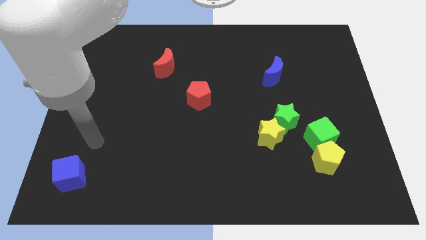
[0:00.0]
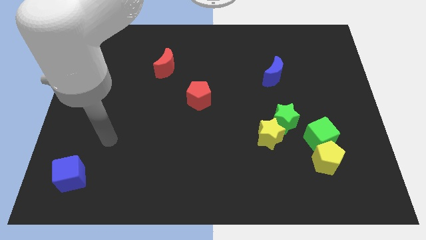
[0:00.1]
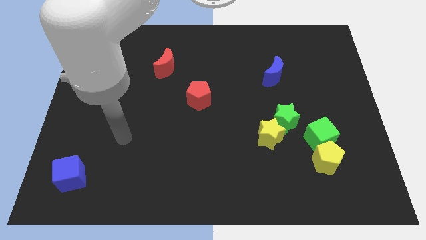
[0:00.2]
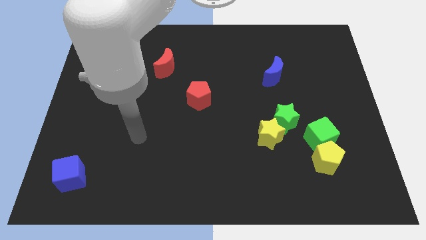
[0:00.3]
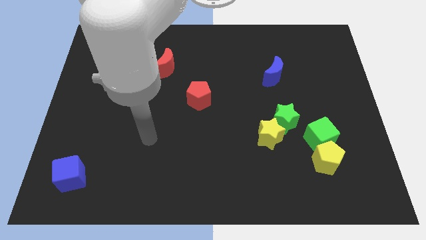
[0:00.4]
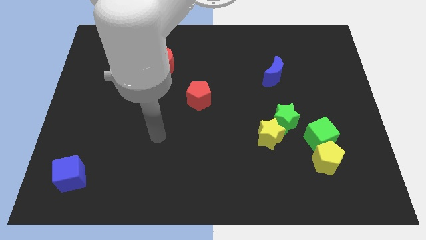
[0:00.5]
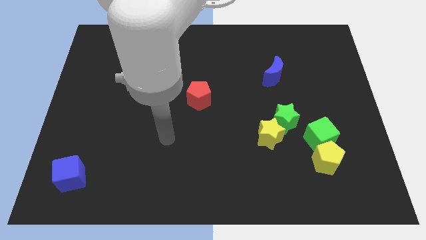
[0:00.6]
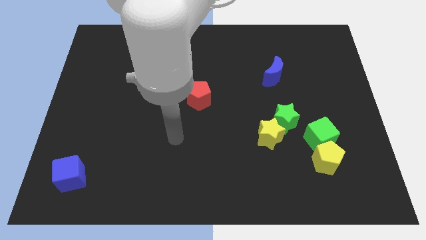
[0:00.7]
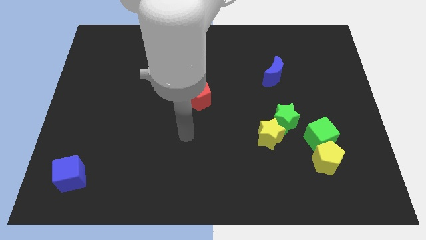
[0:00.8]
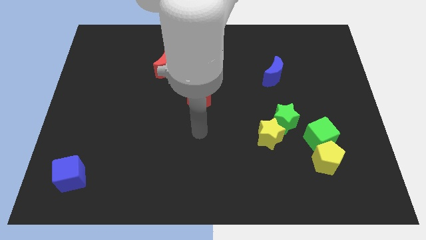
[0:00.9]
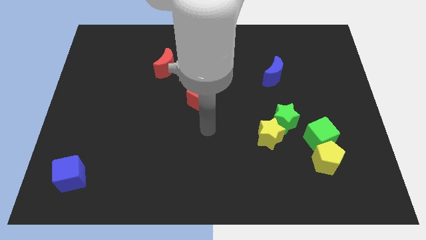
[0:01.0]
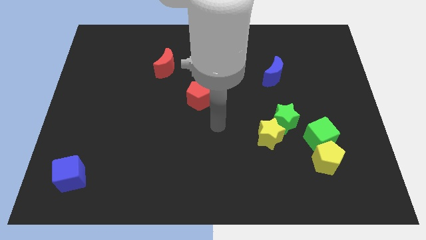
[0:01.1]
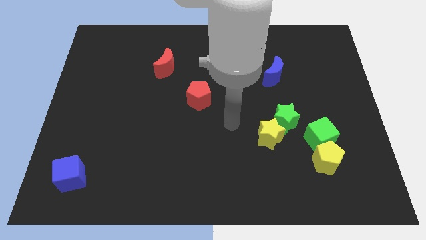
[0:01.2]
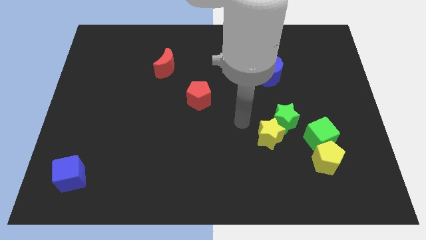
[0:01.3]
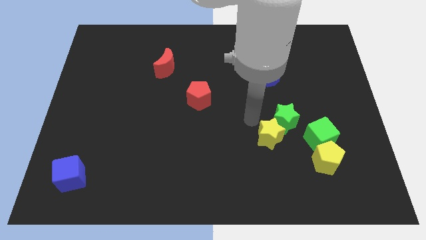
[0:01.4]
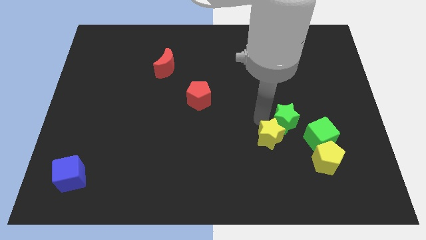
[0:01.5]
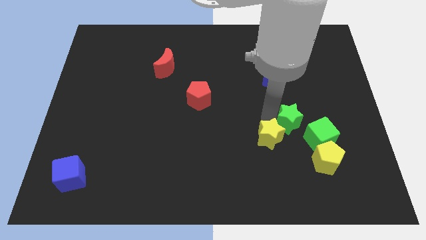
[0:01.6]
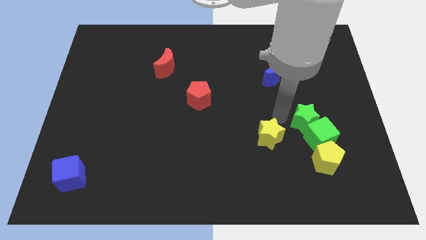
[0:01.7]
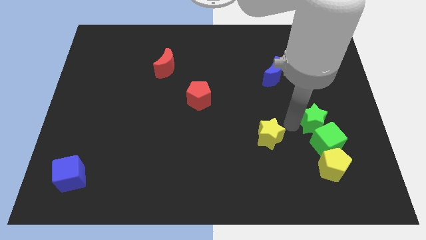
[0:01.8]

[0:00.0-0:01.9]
move the yellow star away from the green star

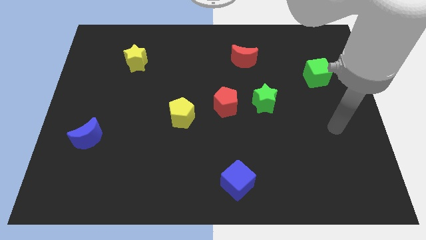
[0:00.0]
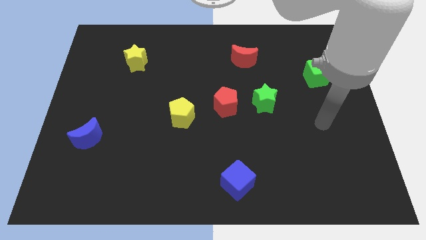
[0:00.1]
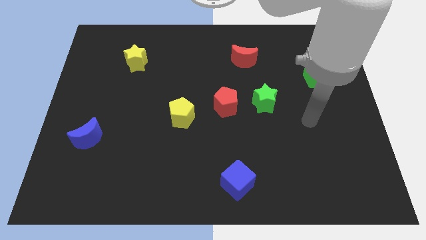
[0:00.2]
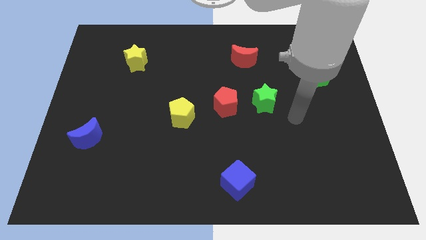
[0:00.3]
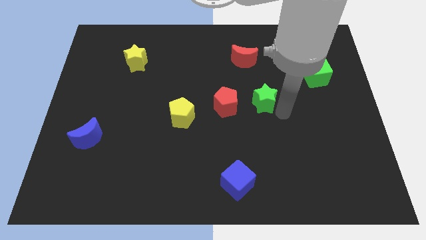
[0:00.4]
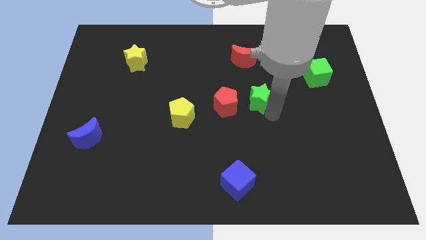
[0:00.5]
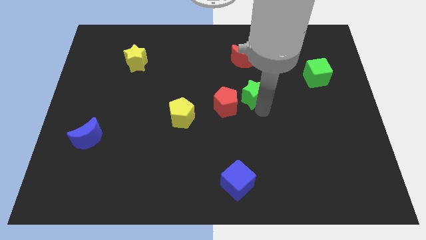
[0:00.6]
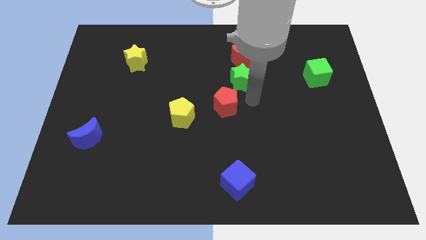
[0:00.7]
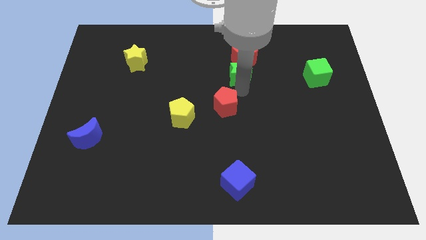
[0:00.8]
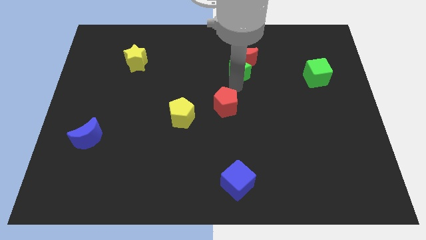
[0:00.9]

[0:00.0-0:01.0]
separate the red pentagon from the green star

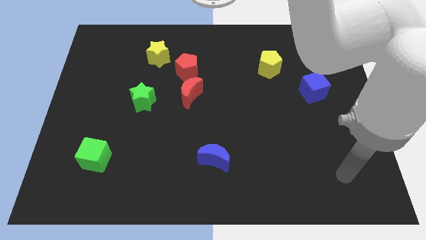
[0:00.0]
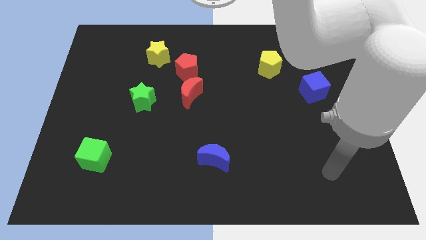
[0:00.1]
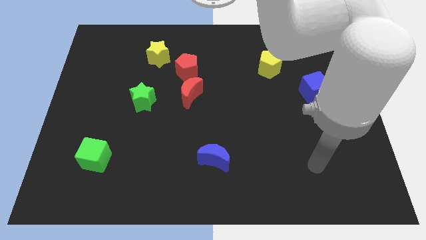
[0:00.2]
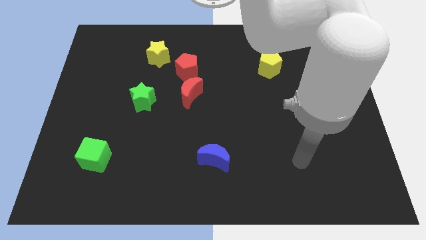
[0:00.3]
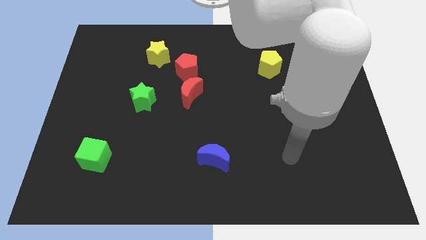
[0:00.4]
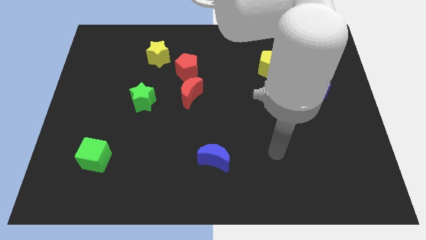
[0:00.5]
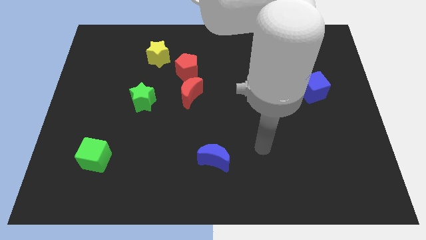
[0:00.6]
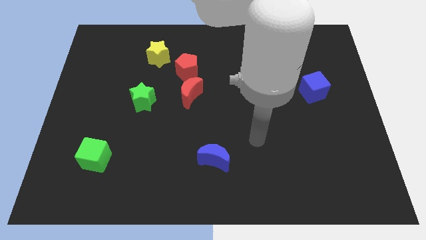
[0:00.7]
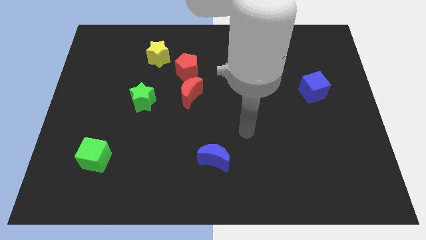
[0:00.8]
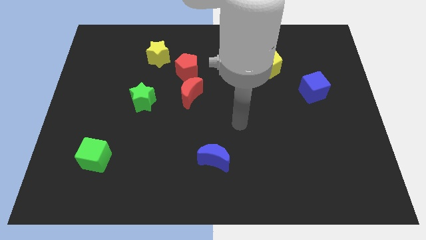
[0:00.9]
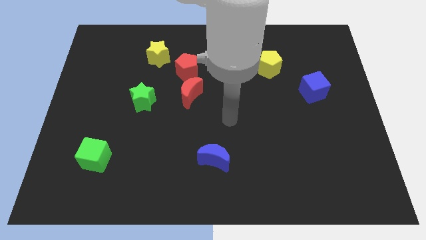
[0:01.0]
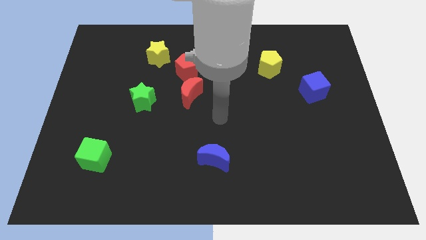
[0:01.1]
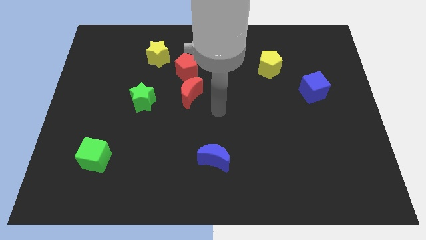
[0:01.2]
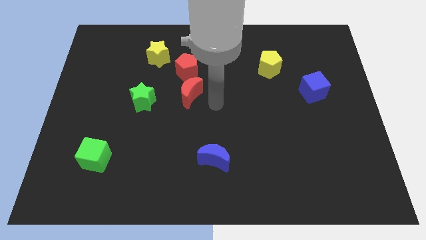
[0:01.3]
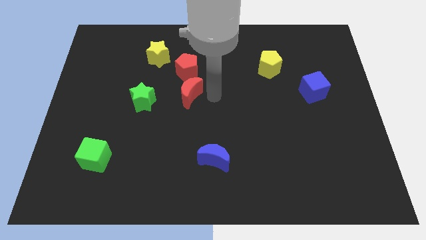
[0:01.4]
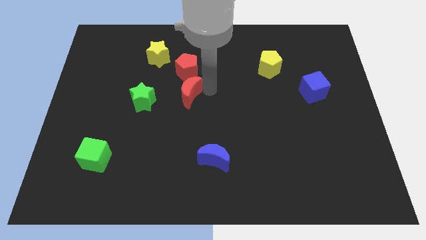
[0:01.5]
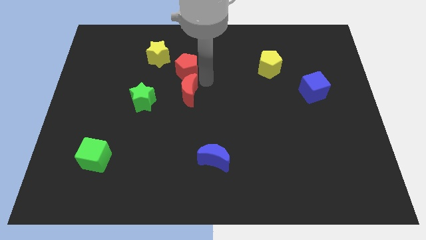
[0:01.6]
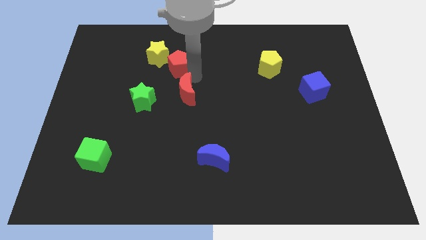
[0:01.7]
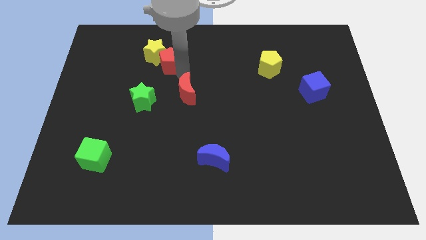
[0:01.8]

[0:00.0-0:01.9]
pull the red moon apart from the red pentagon

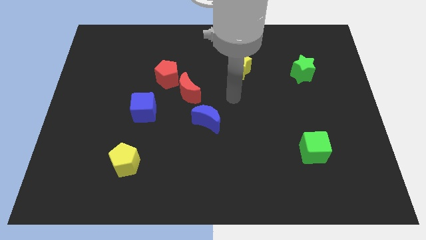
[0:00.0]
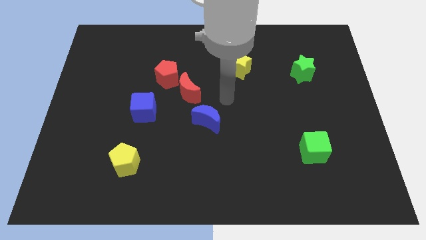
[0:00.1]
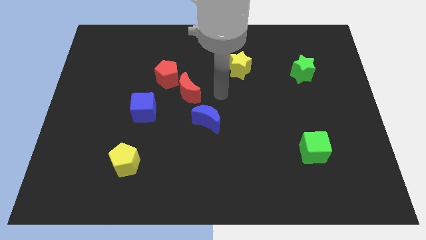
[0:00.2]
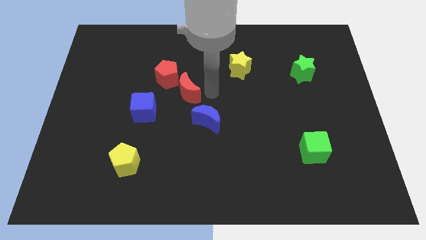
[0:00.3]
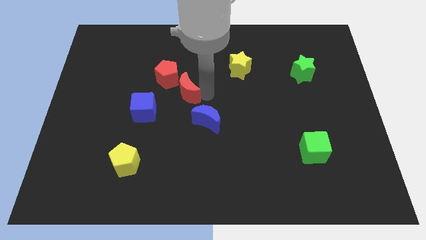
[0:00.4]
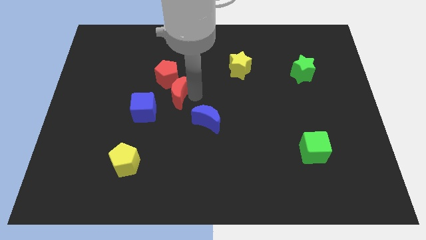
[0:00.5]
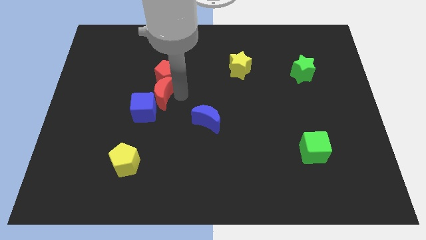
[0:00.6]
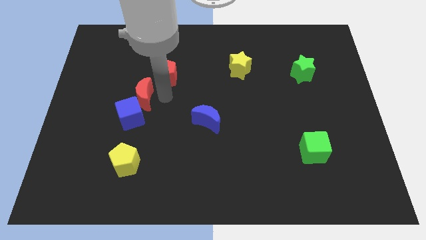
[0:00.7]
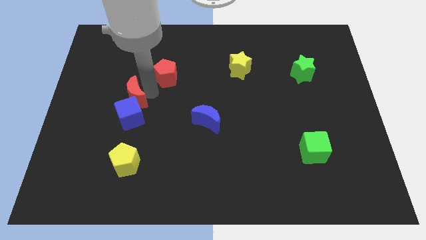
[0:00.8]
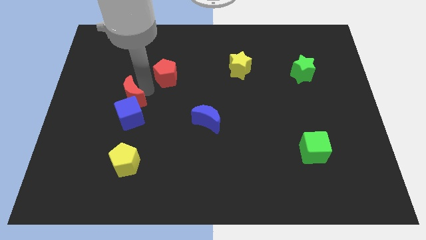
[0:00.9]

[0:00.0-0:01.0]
pull the red pentagon apart from the red moon

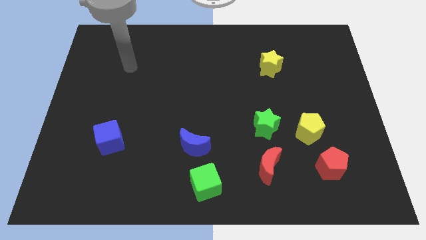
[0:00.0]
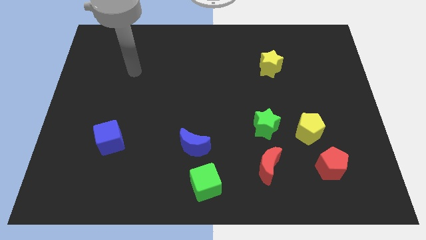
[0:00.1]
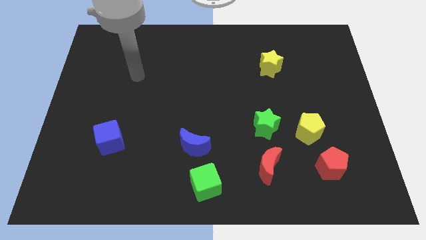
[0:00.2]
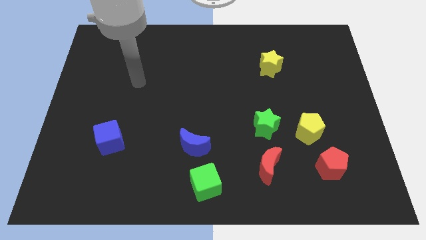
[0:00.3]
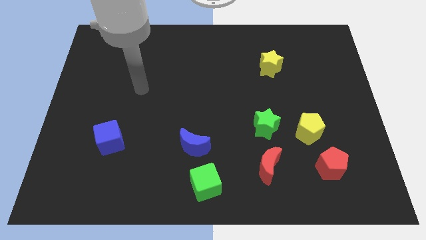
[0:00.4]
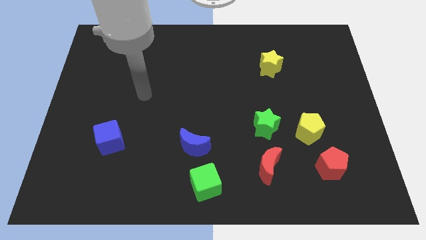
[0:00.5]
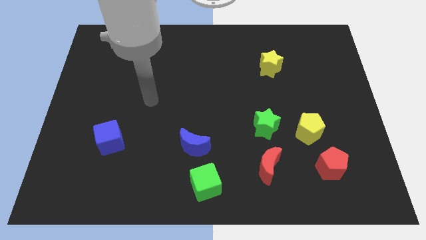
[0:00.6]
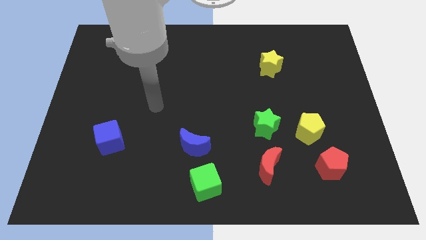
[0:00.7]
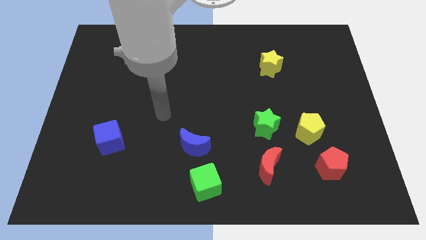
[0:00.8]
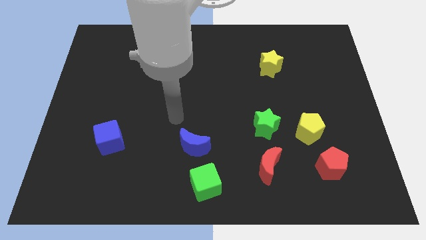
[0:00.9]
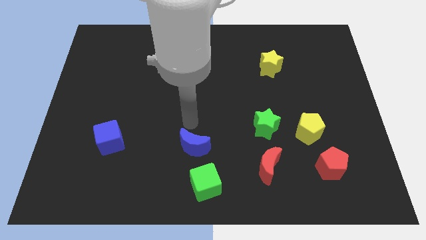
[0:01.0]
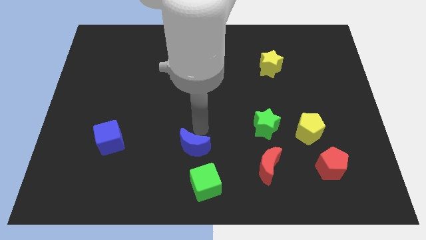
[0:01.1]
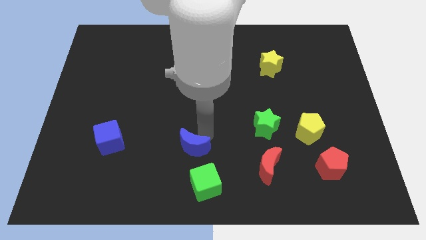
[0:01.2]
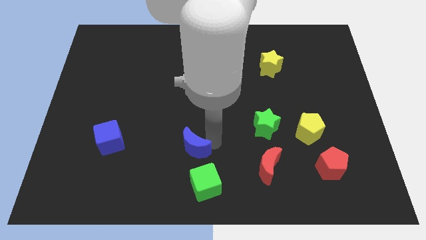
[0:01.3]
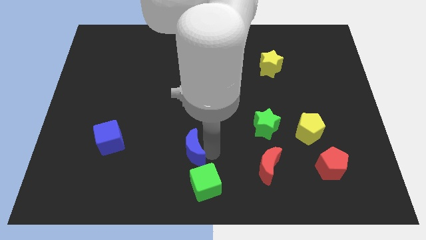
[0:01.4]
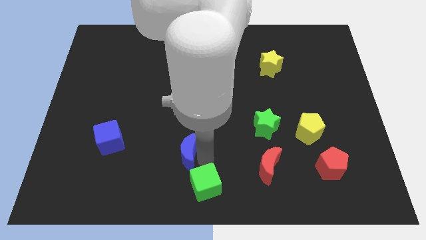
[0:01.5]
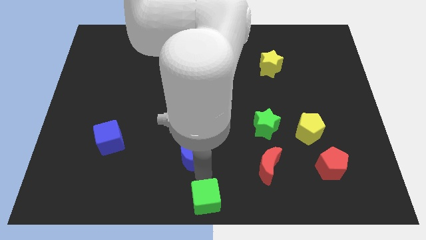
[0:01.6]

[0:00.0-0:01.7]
pull the blue moon apart from the green cube

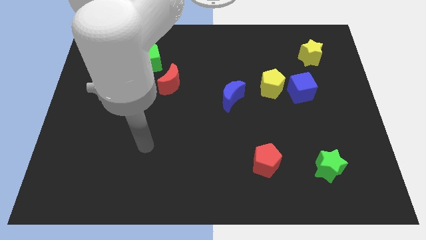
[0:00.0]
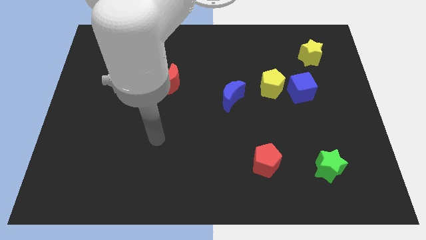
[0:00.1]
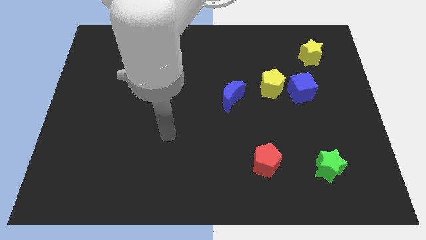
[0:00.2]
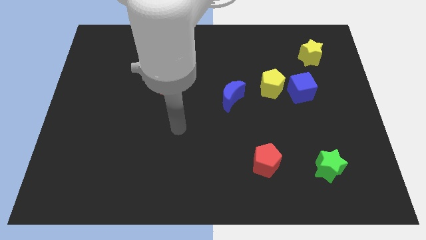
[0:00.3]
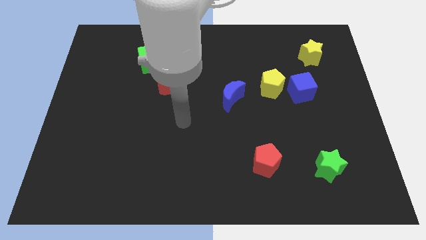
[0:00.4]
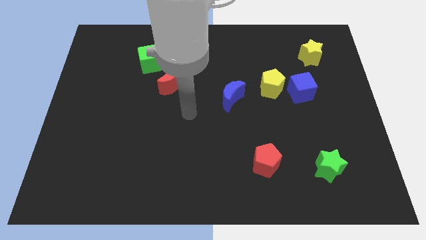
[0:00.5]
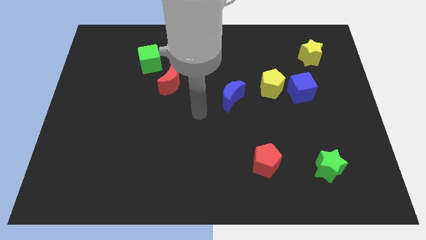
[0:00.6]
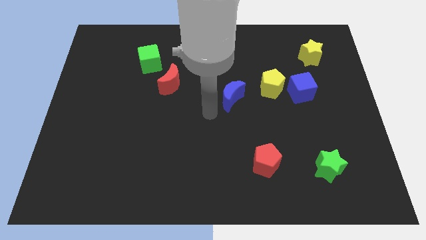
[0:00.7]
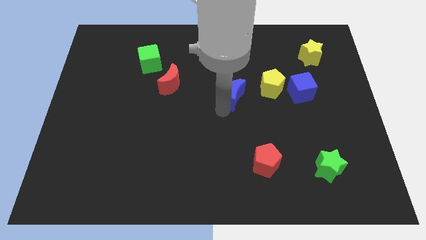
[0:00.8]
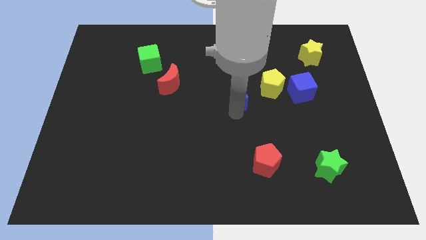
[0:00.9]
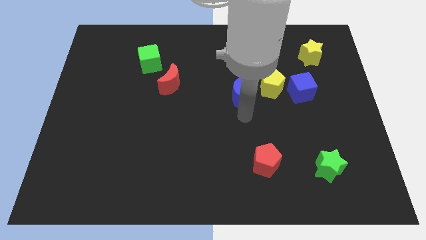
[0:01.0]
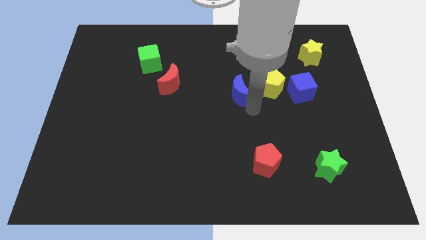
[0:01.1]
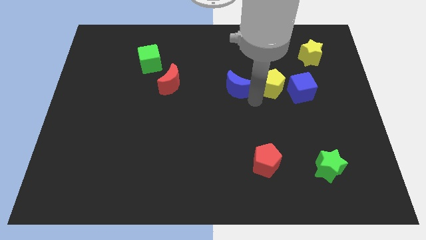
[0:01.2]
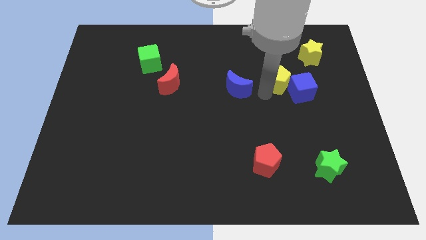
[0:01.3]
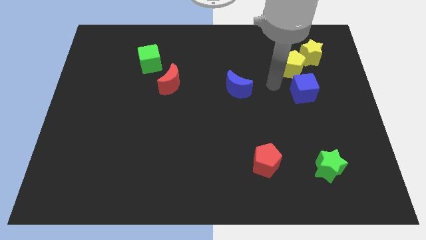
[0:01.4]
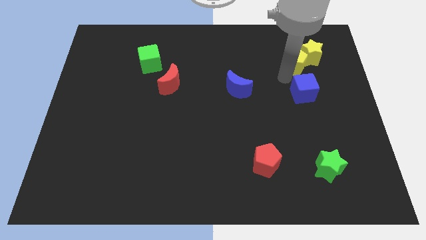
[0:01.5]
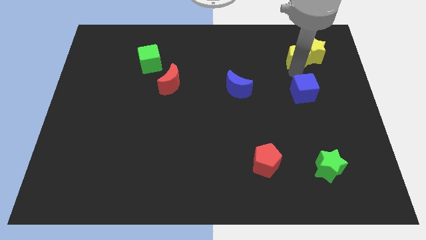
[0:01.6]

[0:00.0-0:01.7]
separate the blue cube from the yellow pentagon
